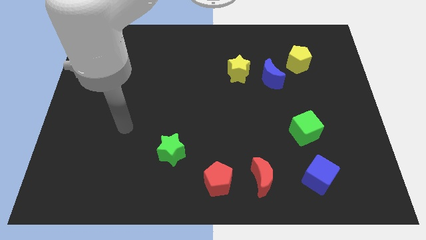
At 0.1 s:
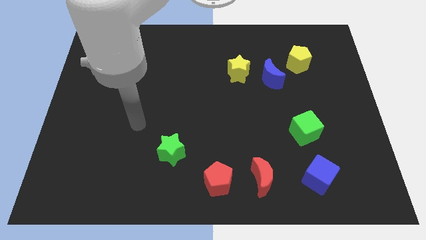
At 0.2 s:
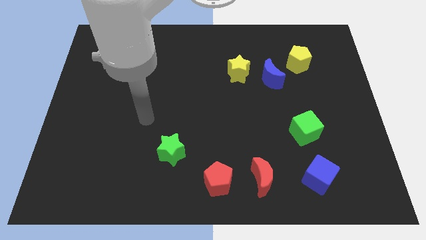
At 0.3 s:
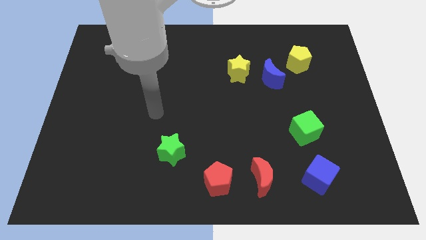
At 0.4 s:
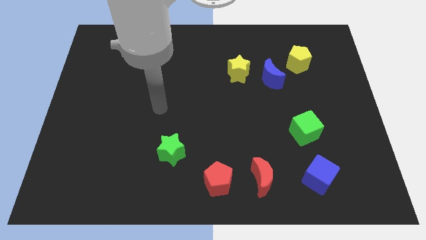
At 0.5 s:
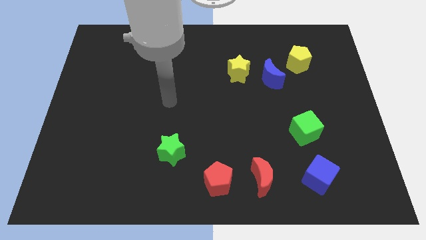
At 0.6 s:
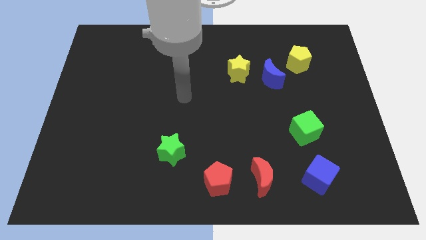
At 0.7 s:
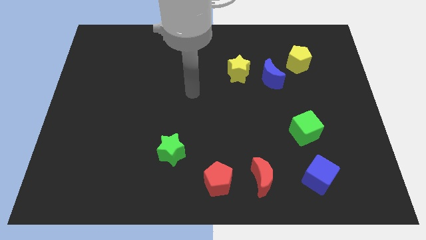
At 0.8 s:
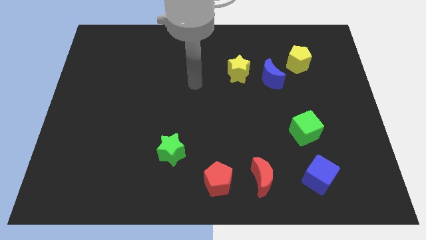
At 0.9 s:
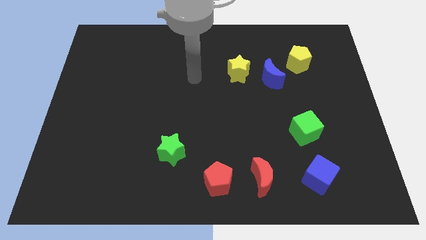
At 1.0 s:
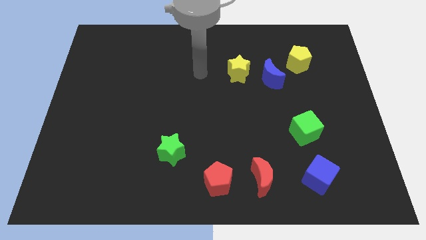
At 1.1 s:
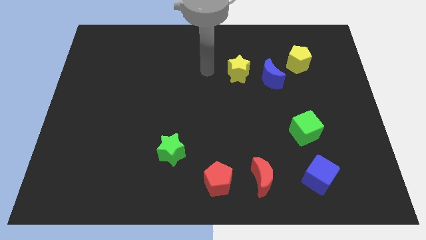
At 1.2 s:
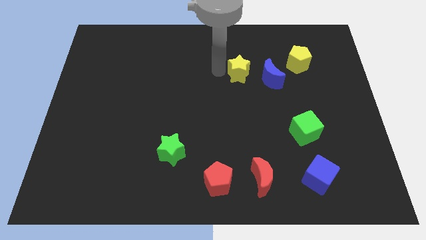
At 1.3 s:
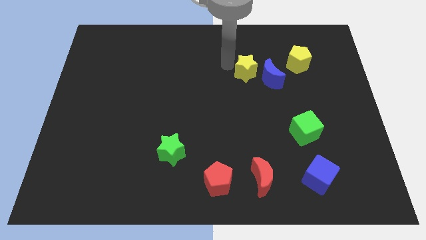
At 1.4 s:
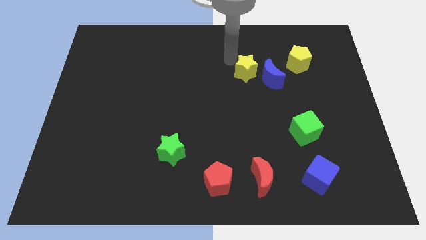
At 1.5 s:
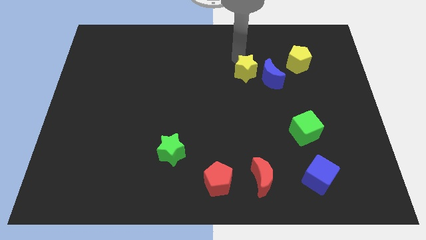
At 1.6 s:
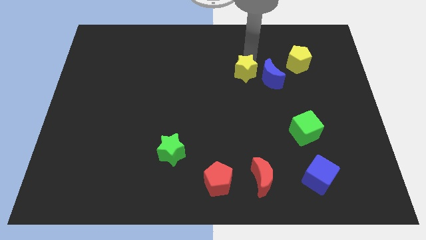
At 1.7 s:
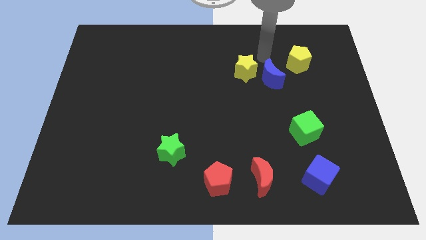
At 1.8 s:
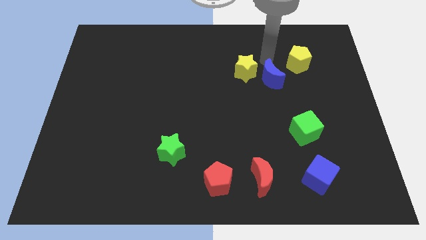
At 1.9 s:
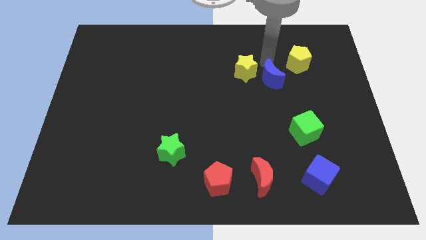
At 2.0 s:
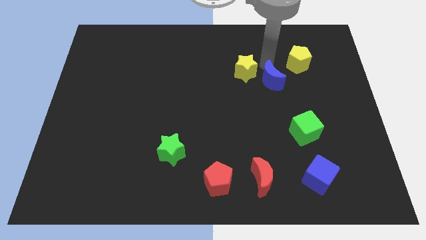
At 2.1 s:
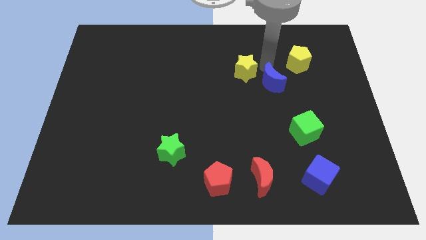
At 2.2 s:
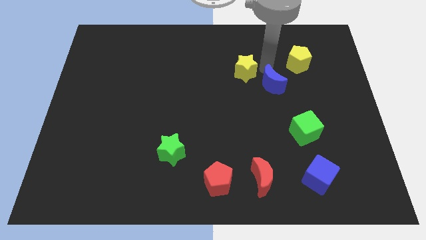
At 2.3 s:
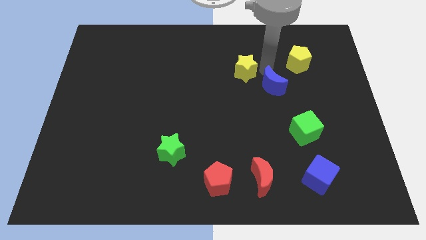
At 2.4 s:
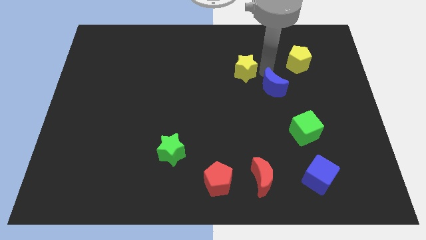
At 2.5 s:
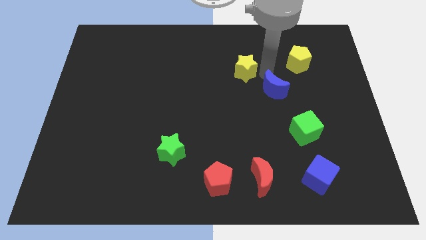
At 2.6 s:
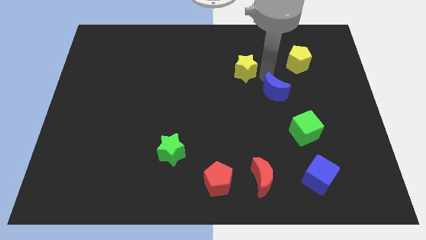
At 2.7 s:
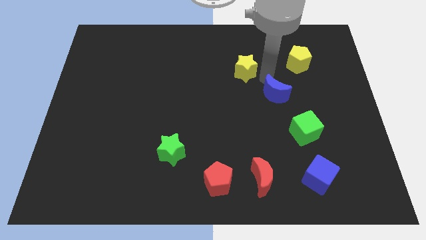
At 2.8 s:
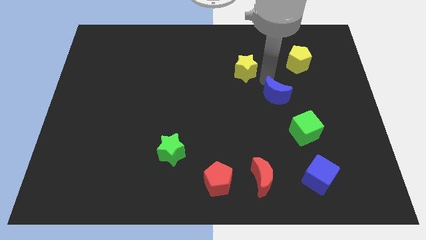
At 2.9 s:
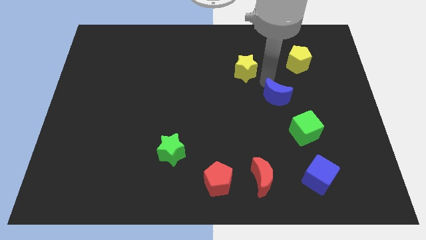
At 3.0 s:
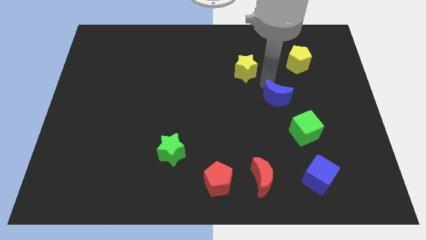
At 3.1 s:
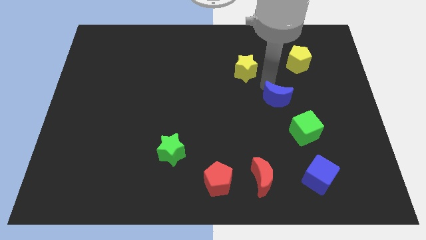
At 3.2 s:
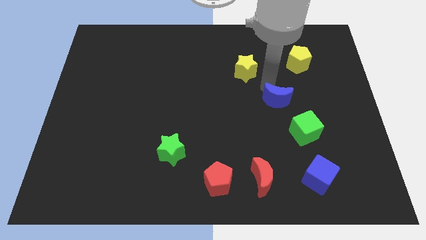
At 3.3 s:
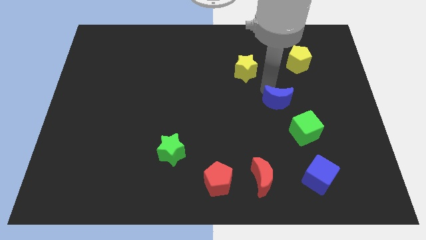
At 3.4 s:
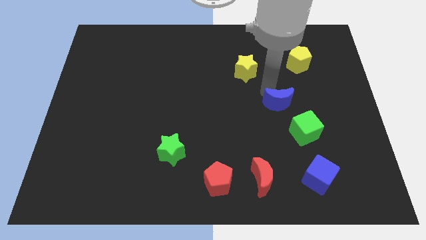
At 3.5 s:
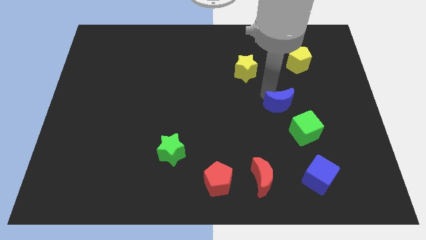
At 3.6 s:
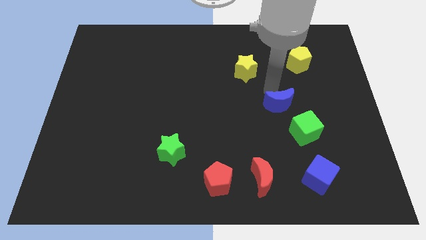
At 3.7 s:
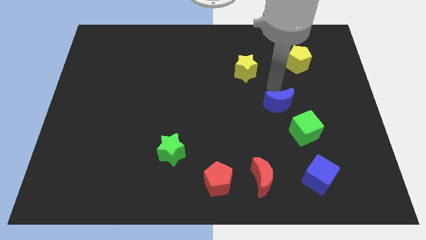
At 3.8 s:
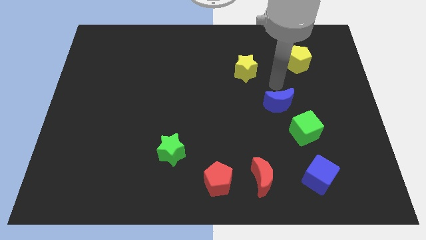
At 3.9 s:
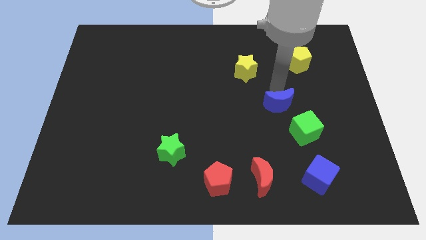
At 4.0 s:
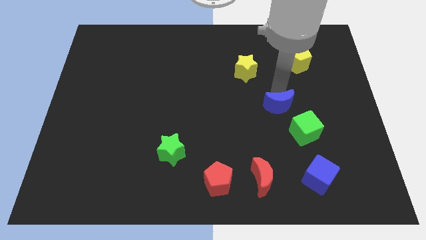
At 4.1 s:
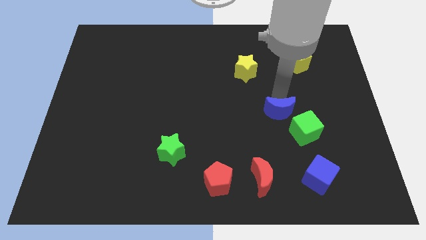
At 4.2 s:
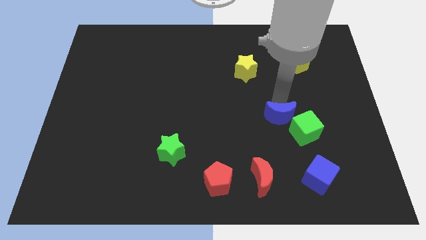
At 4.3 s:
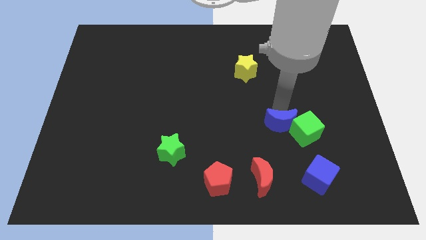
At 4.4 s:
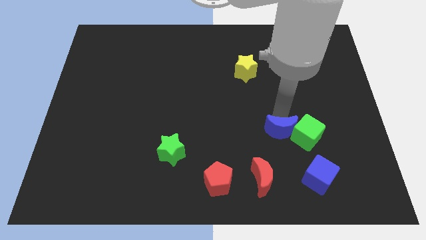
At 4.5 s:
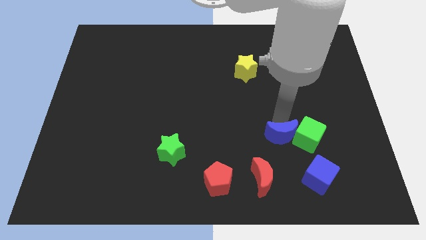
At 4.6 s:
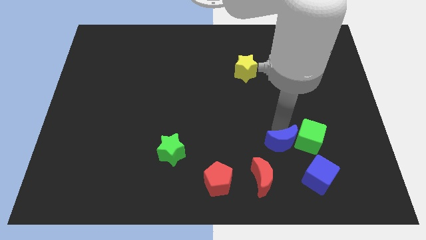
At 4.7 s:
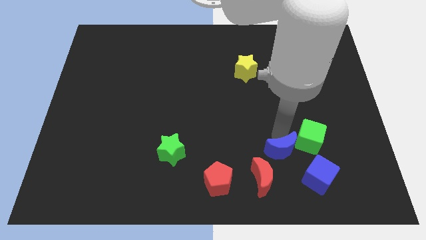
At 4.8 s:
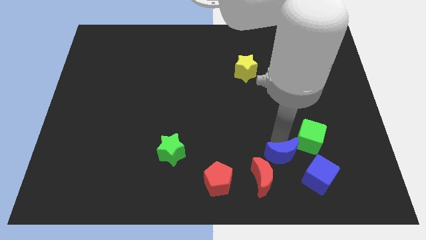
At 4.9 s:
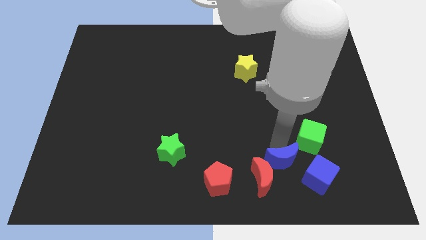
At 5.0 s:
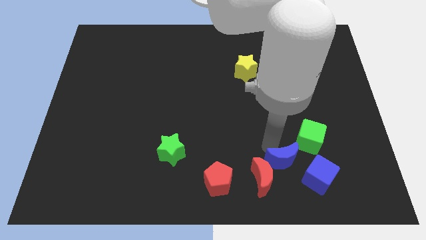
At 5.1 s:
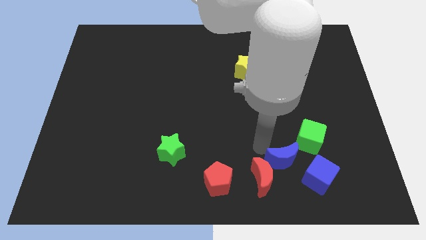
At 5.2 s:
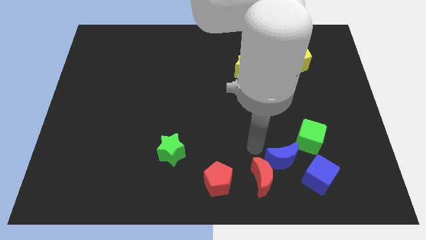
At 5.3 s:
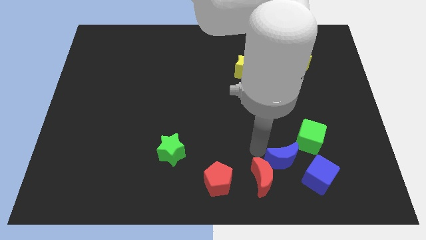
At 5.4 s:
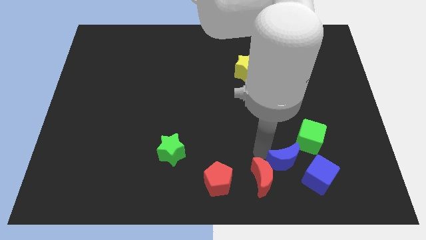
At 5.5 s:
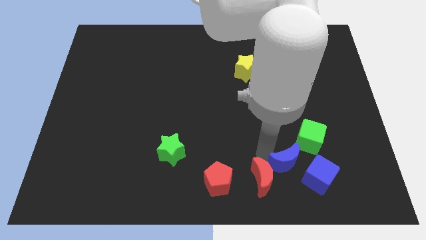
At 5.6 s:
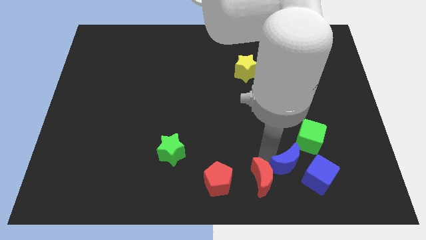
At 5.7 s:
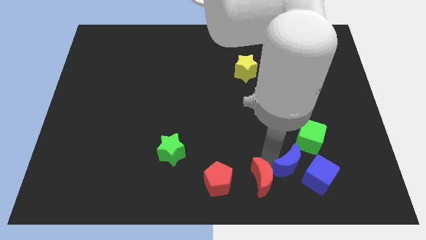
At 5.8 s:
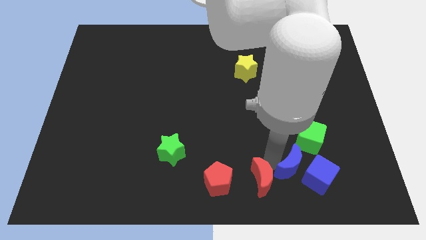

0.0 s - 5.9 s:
slide the blue moon next to the blue cube
